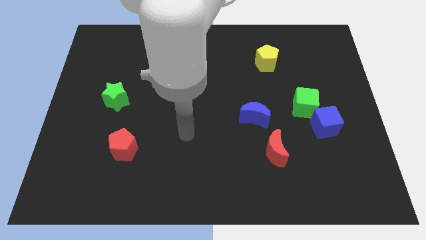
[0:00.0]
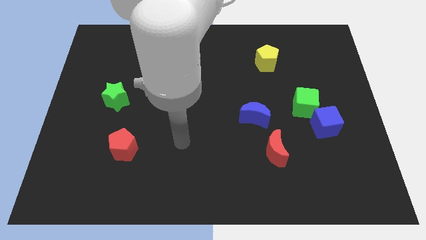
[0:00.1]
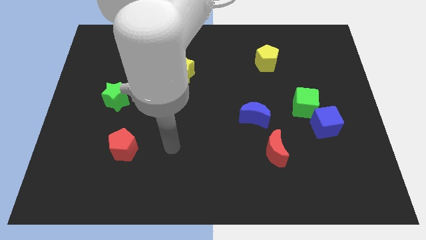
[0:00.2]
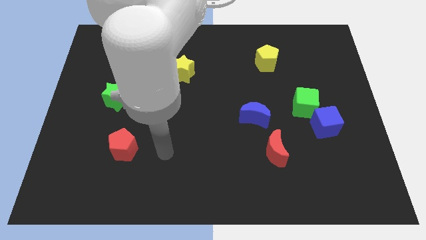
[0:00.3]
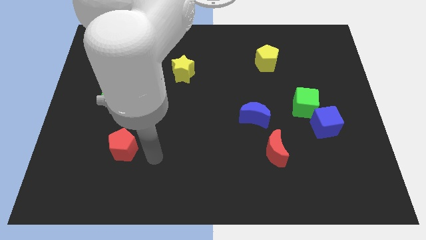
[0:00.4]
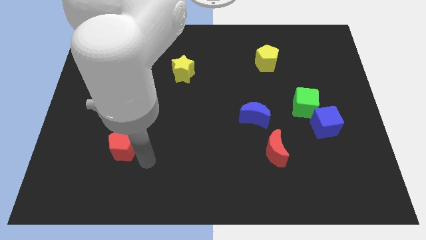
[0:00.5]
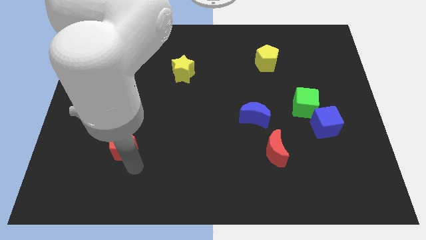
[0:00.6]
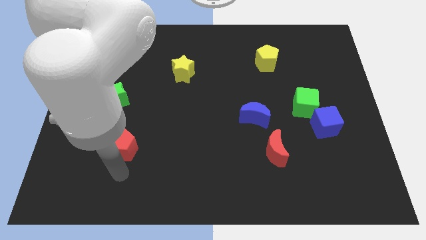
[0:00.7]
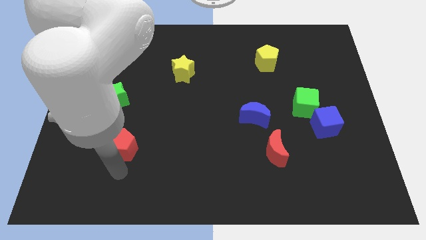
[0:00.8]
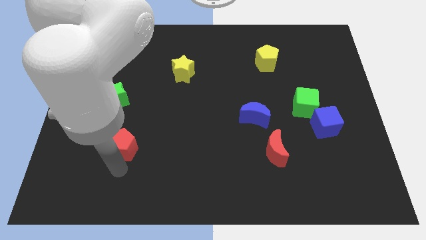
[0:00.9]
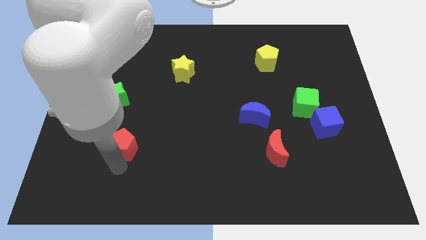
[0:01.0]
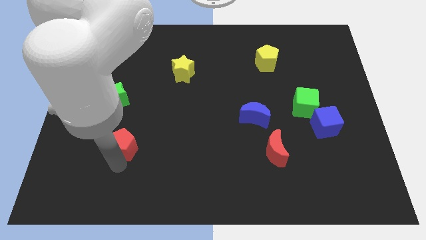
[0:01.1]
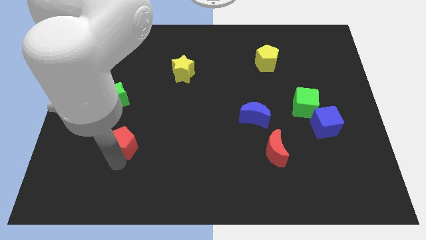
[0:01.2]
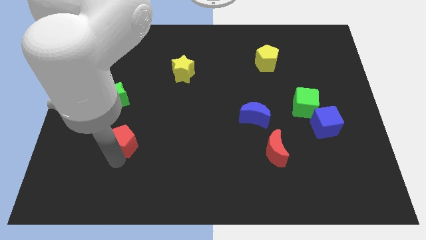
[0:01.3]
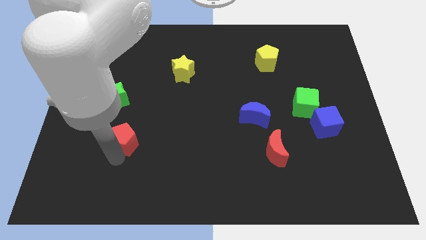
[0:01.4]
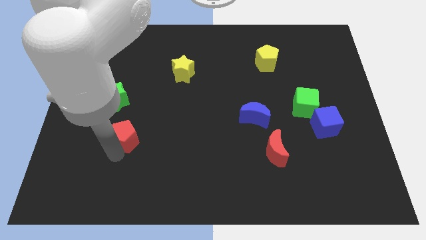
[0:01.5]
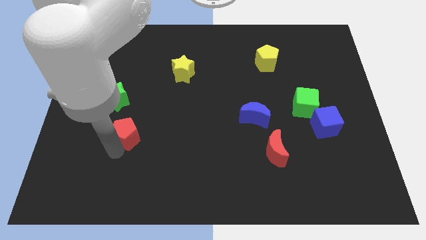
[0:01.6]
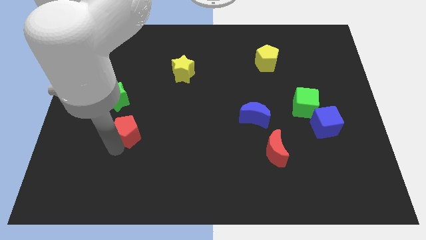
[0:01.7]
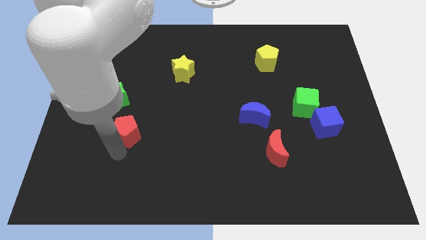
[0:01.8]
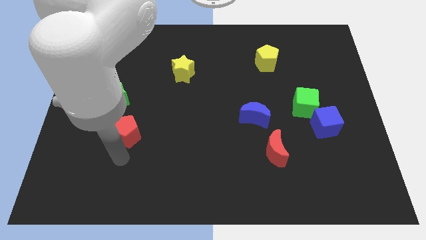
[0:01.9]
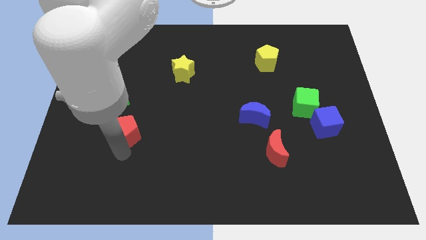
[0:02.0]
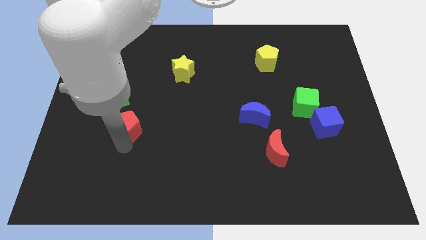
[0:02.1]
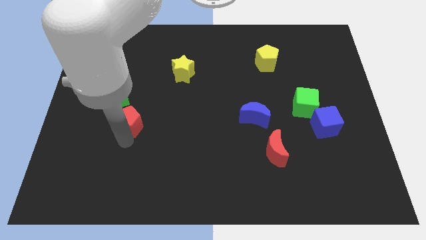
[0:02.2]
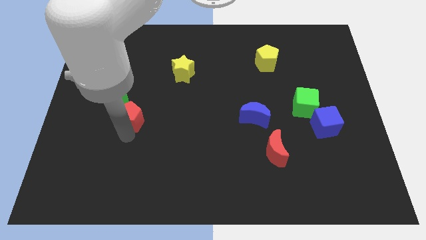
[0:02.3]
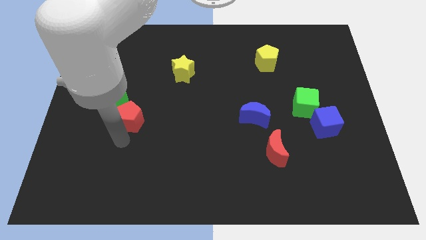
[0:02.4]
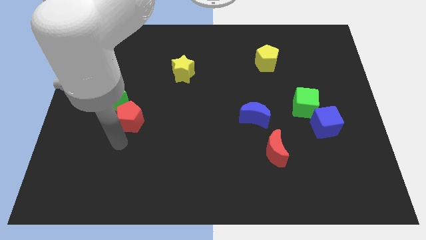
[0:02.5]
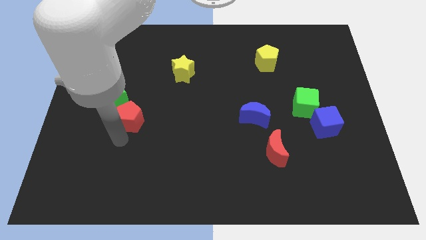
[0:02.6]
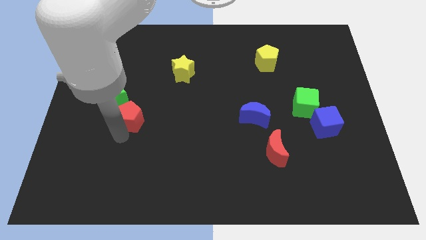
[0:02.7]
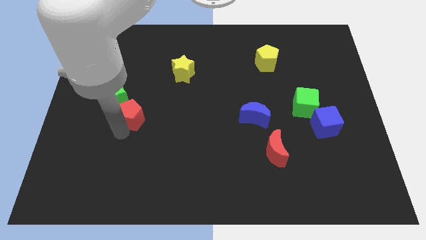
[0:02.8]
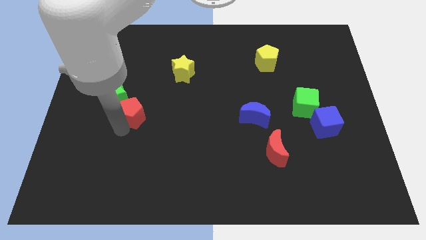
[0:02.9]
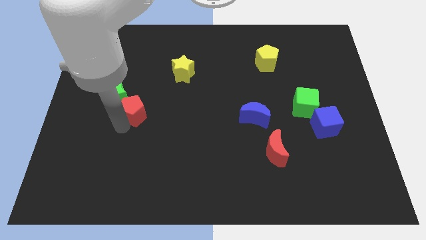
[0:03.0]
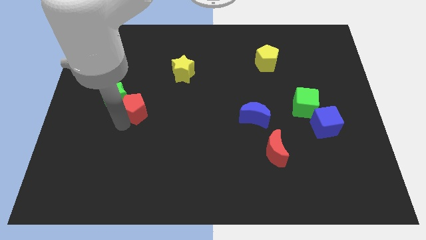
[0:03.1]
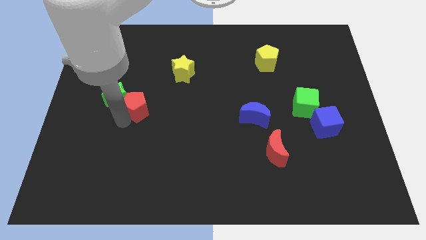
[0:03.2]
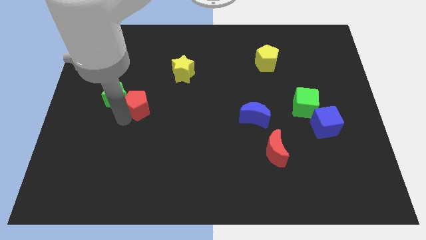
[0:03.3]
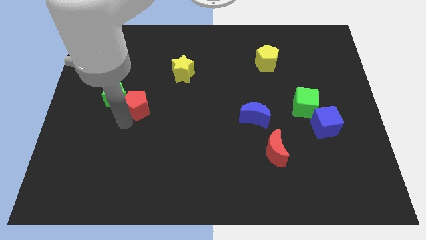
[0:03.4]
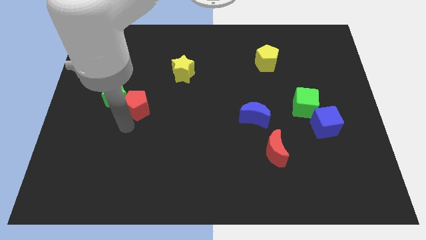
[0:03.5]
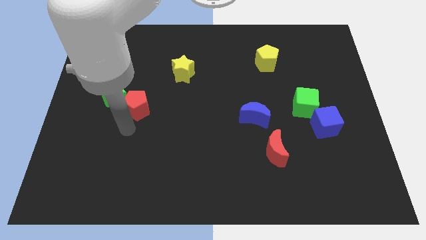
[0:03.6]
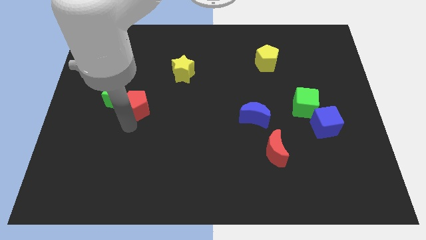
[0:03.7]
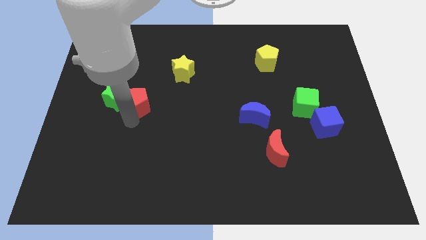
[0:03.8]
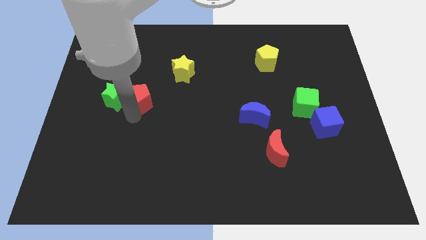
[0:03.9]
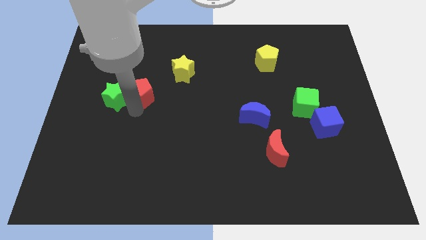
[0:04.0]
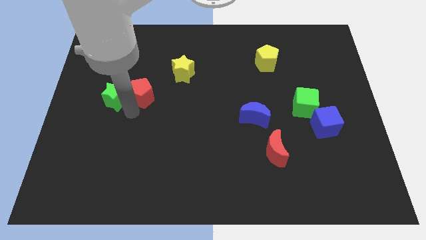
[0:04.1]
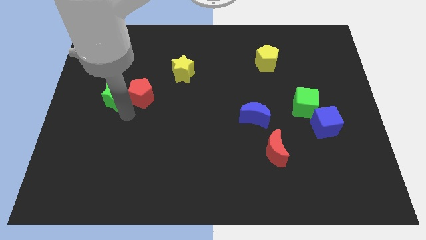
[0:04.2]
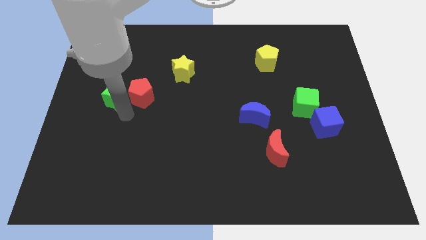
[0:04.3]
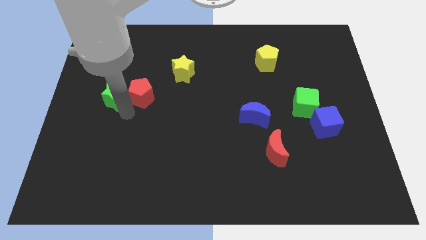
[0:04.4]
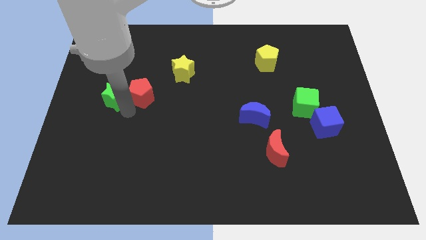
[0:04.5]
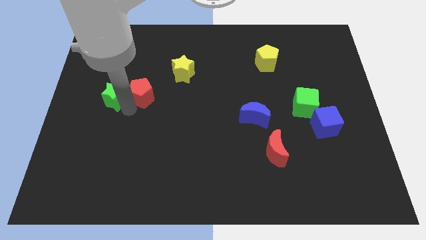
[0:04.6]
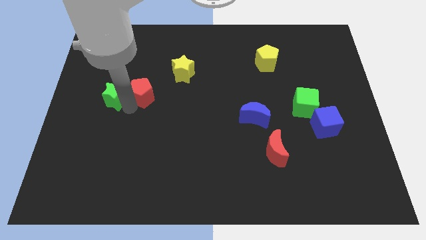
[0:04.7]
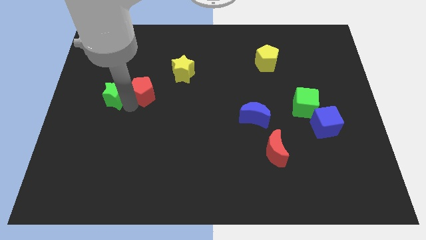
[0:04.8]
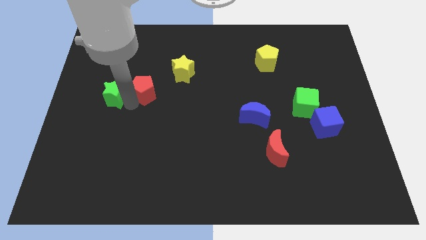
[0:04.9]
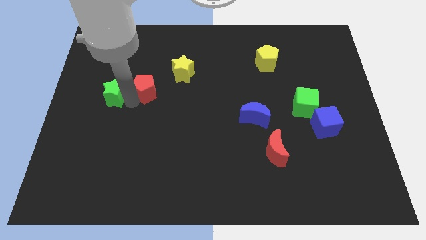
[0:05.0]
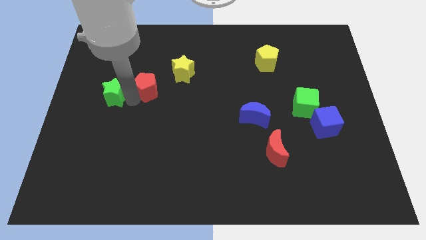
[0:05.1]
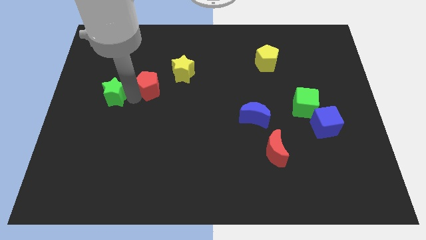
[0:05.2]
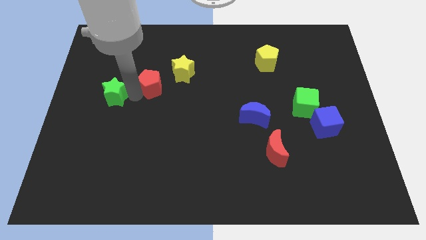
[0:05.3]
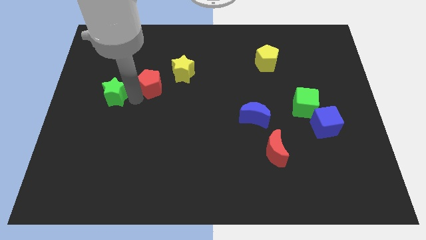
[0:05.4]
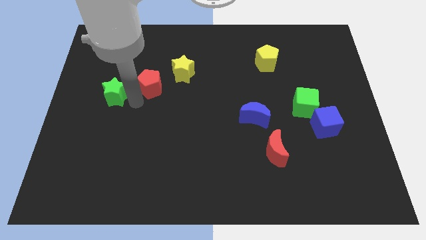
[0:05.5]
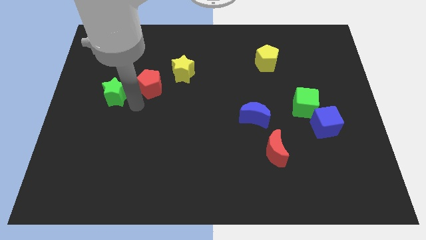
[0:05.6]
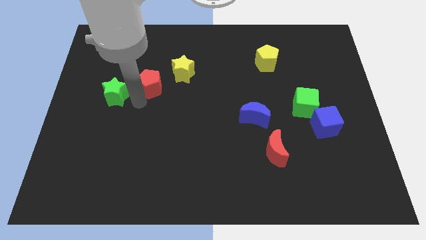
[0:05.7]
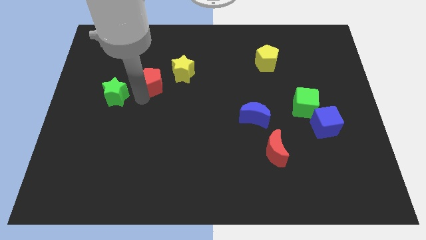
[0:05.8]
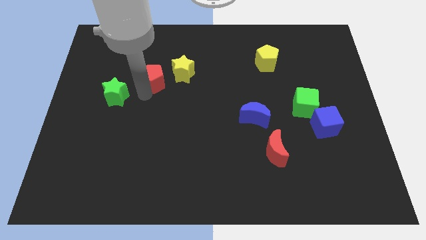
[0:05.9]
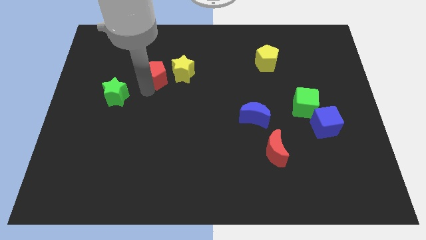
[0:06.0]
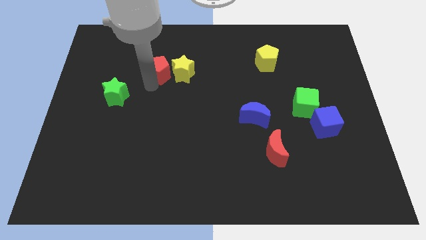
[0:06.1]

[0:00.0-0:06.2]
move the red pentagon to the top left side of the yellow star

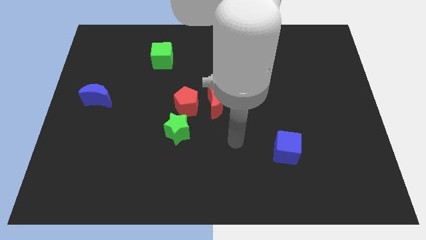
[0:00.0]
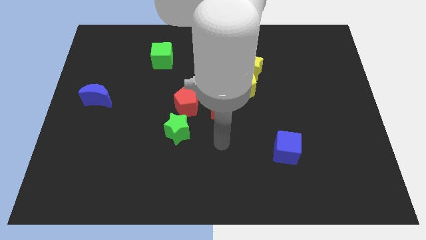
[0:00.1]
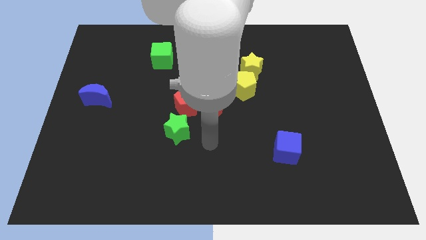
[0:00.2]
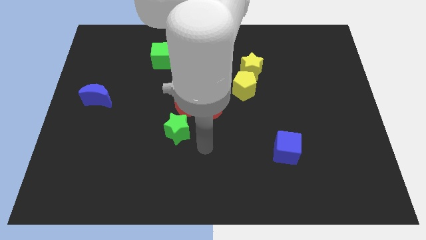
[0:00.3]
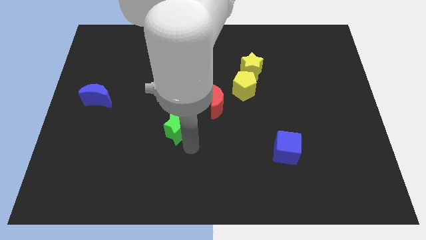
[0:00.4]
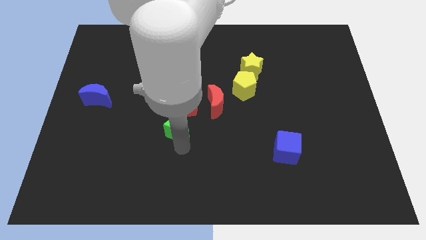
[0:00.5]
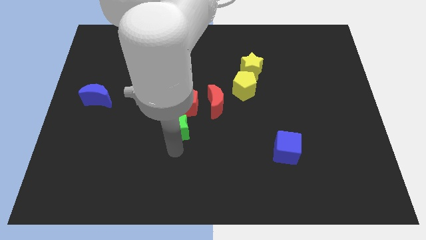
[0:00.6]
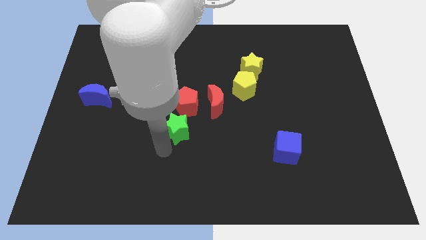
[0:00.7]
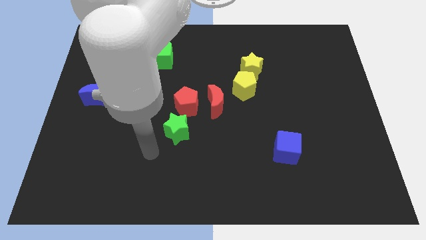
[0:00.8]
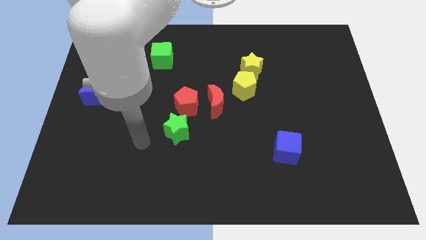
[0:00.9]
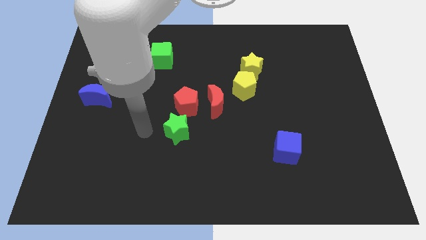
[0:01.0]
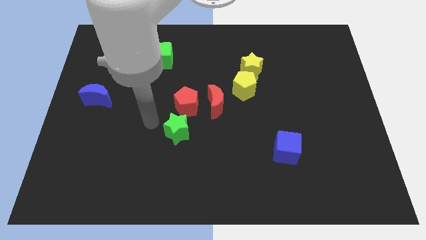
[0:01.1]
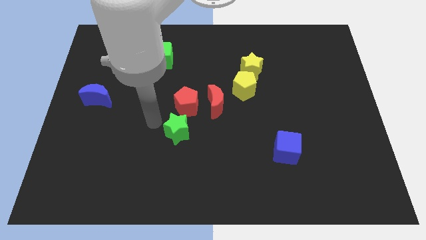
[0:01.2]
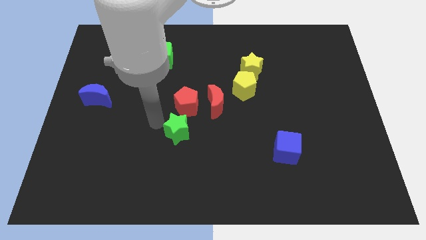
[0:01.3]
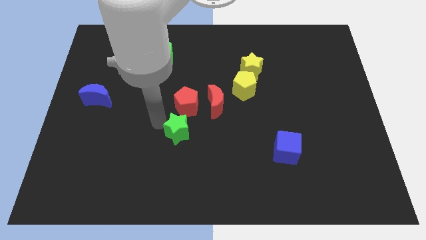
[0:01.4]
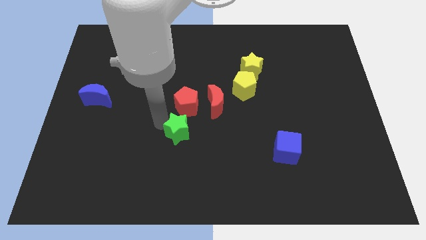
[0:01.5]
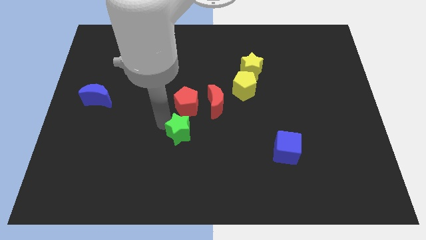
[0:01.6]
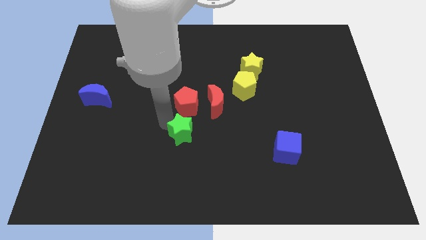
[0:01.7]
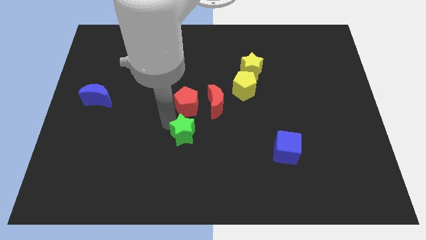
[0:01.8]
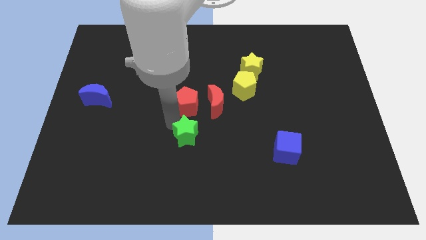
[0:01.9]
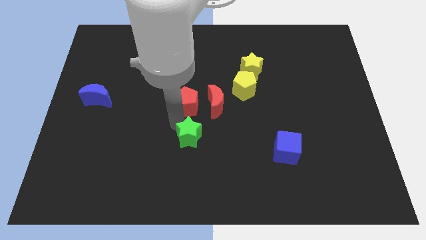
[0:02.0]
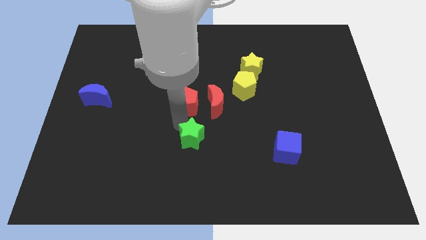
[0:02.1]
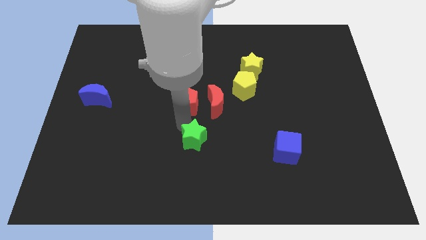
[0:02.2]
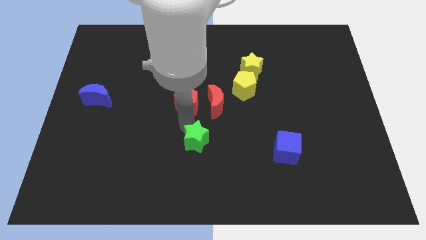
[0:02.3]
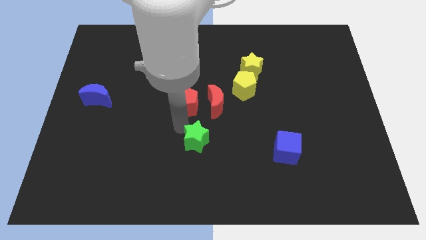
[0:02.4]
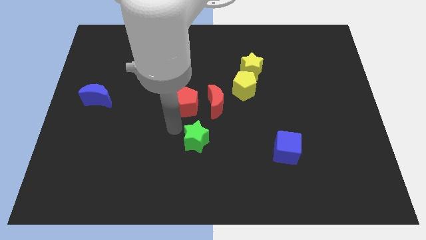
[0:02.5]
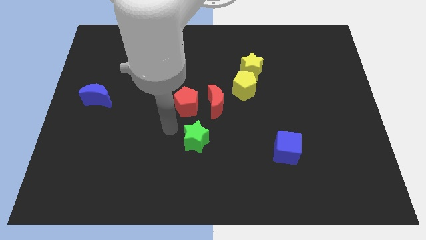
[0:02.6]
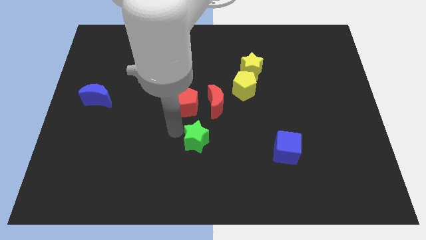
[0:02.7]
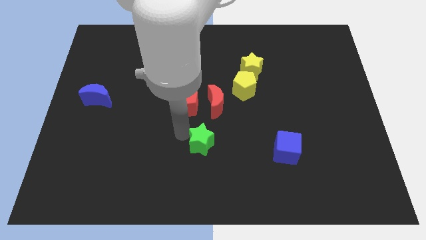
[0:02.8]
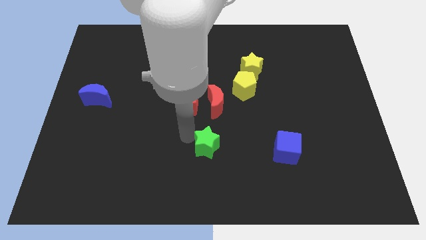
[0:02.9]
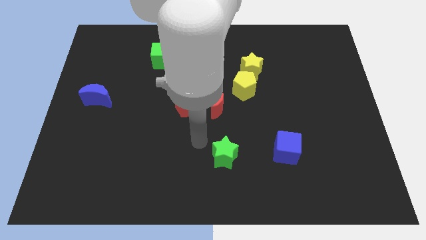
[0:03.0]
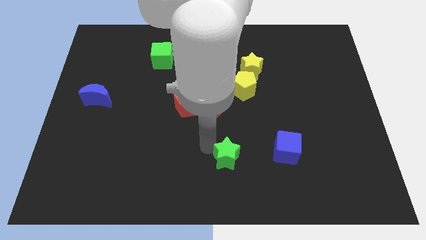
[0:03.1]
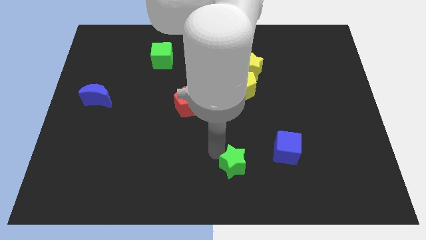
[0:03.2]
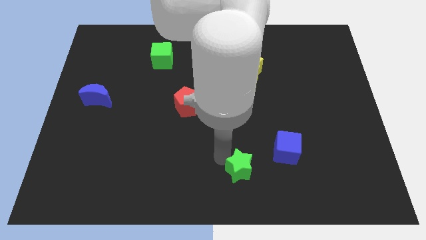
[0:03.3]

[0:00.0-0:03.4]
slide the green star to the bottom left of the blue cube
